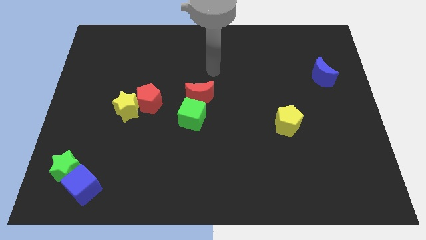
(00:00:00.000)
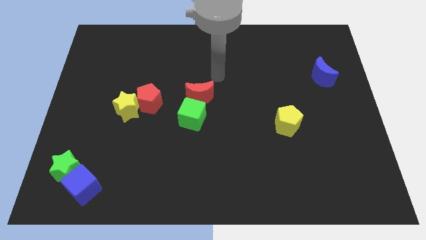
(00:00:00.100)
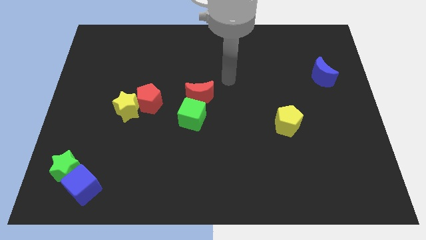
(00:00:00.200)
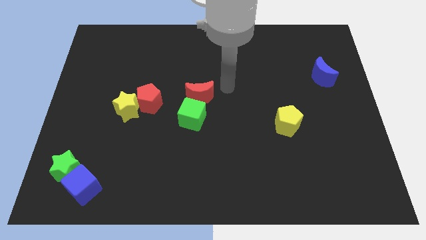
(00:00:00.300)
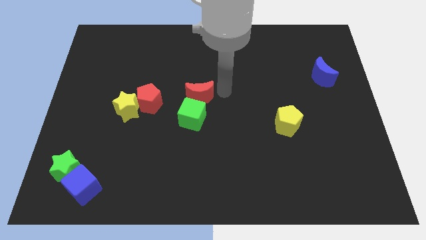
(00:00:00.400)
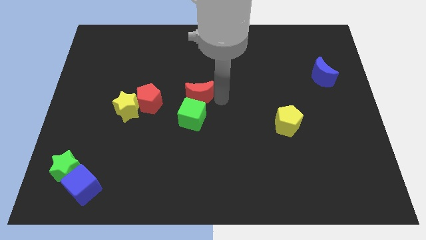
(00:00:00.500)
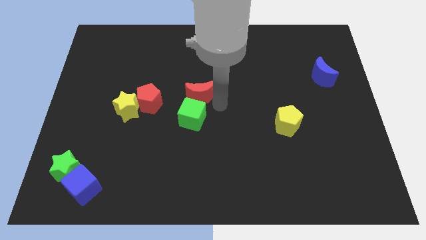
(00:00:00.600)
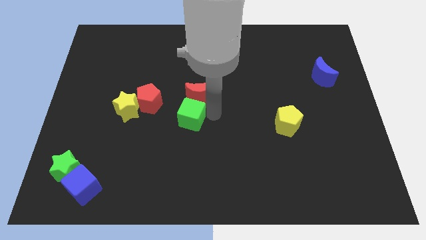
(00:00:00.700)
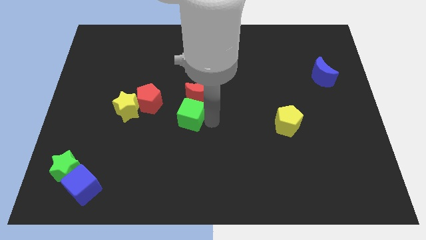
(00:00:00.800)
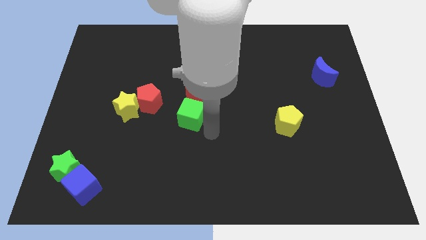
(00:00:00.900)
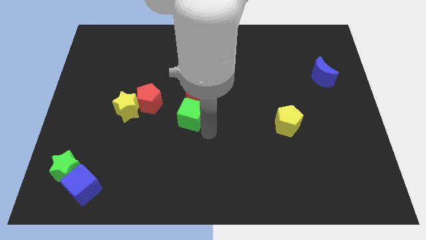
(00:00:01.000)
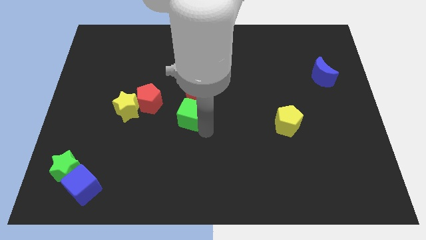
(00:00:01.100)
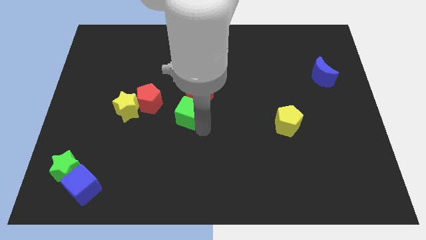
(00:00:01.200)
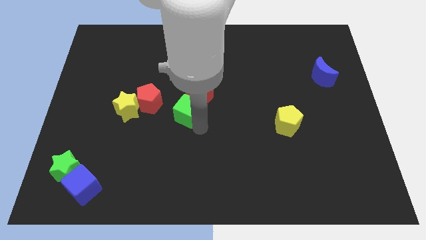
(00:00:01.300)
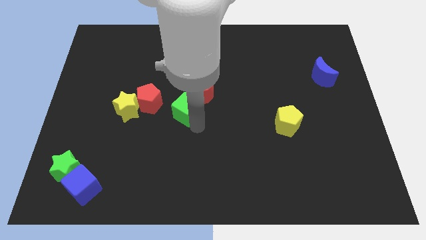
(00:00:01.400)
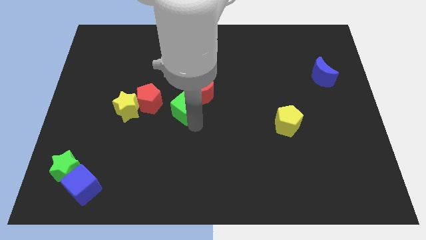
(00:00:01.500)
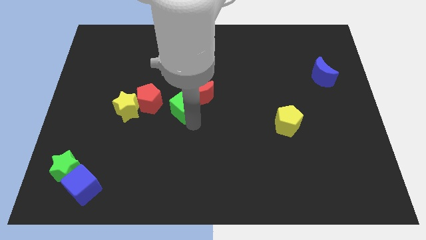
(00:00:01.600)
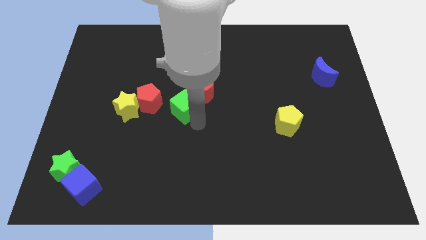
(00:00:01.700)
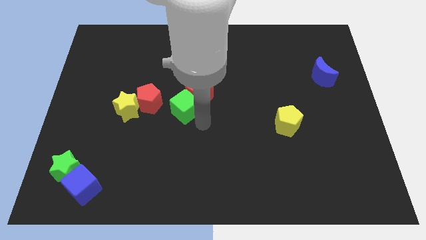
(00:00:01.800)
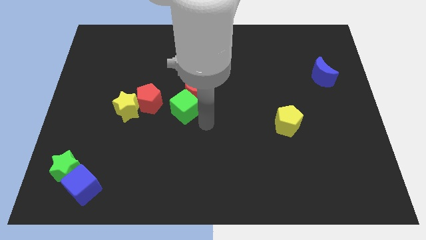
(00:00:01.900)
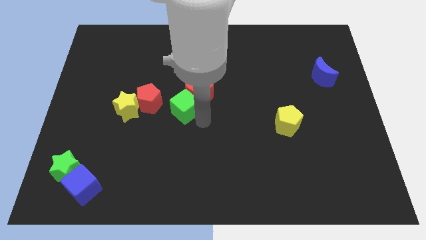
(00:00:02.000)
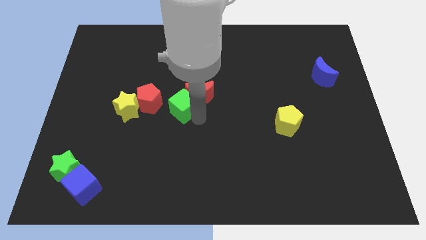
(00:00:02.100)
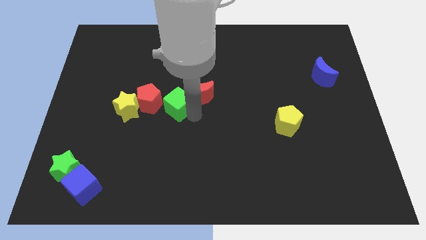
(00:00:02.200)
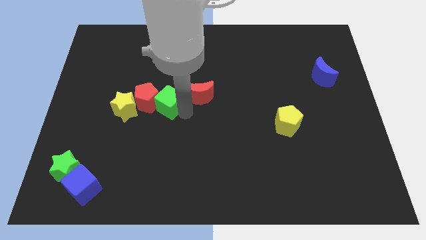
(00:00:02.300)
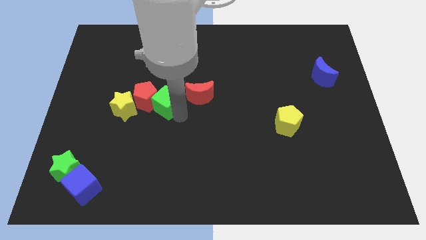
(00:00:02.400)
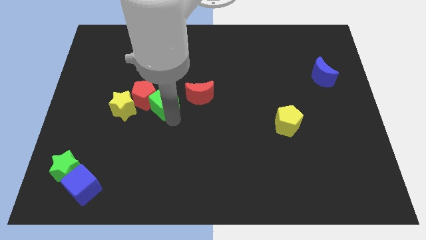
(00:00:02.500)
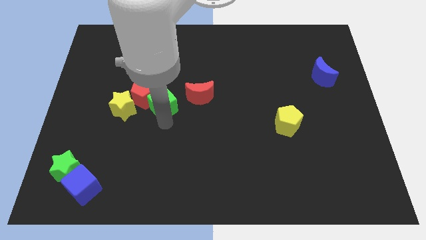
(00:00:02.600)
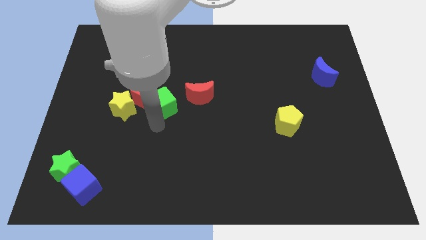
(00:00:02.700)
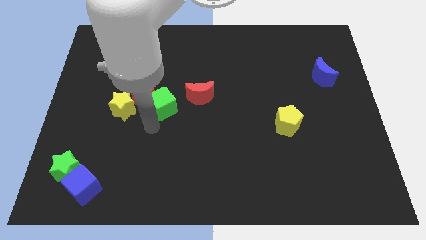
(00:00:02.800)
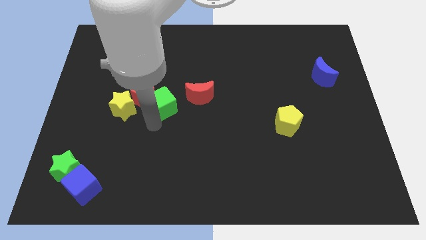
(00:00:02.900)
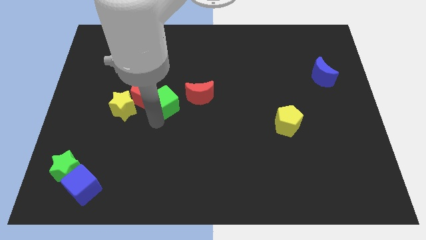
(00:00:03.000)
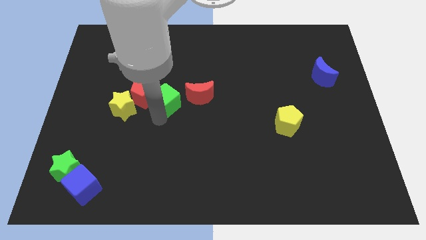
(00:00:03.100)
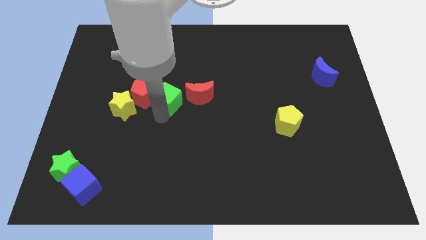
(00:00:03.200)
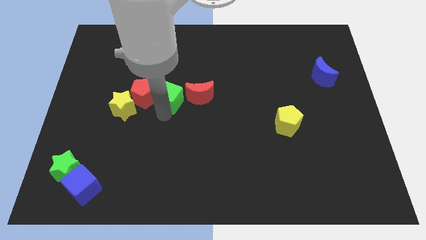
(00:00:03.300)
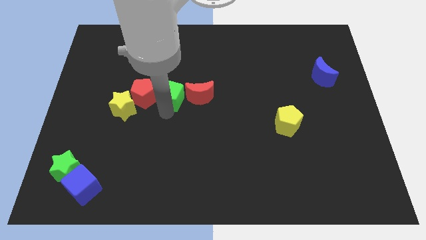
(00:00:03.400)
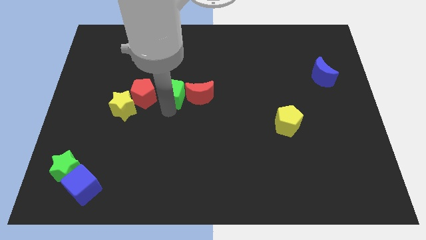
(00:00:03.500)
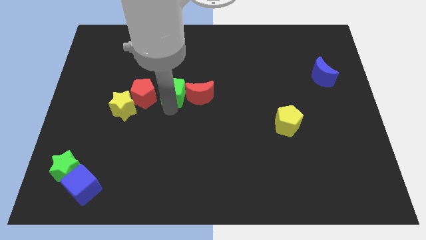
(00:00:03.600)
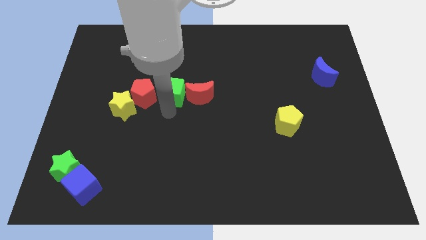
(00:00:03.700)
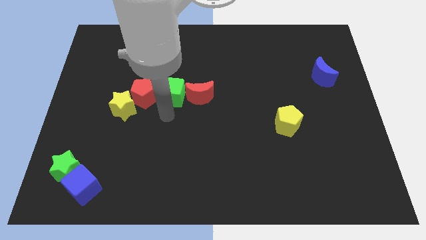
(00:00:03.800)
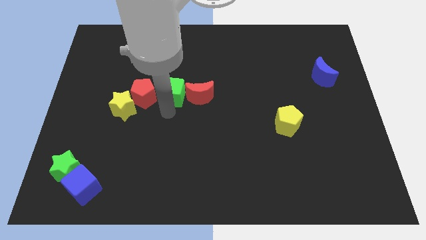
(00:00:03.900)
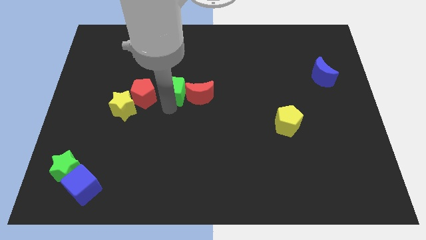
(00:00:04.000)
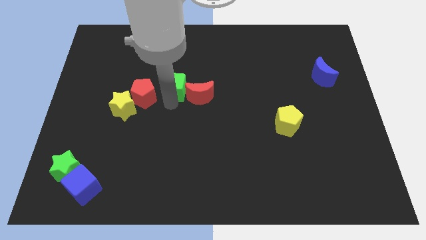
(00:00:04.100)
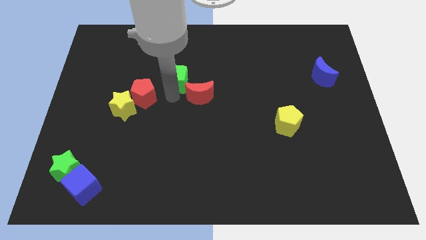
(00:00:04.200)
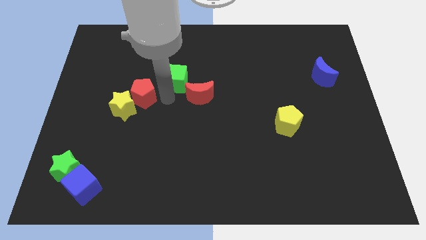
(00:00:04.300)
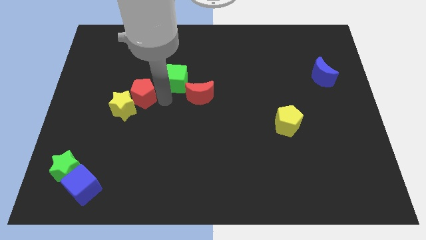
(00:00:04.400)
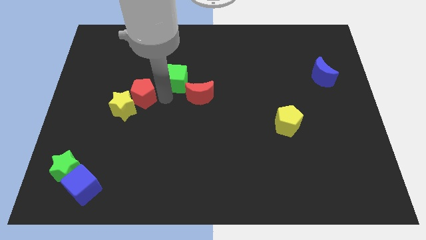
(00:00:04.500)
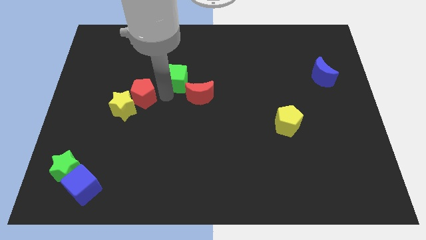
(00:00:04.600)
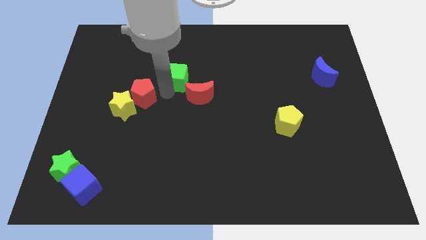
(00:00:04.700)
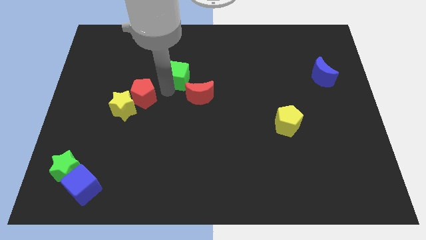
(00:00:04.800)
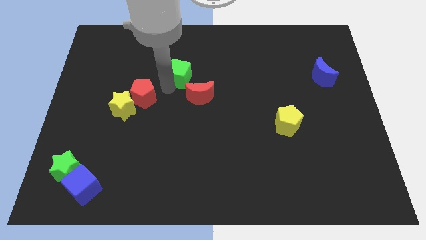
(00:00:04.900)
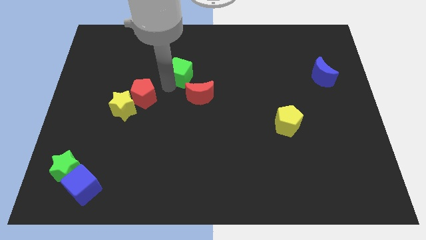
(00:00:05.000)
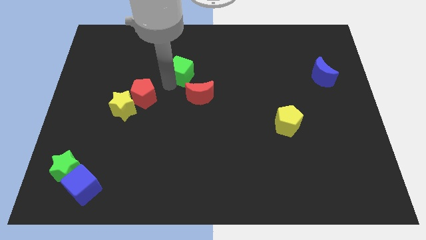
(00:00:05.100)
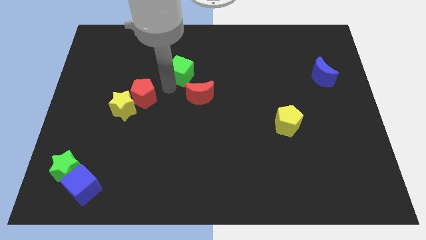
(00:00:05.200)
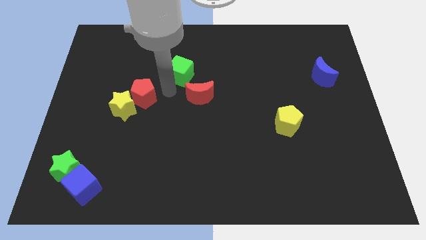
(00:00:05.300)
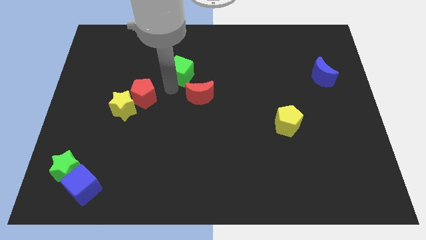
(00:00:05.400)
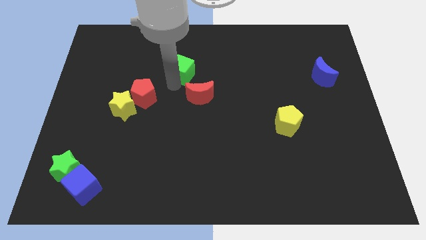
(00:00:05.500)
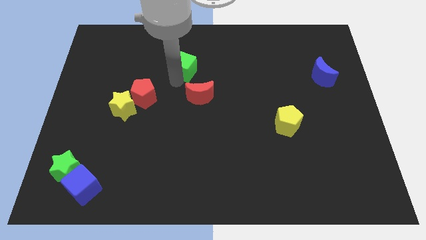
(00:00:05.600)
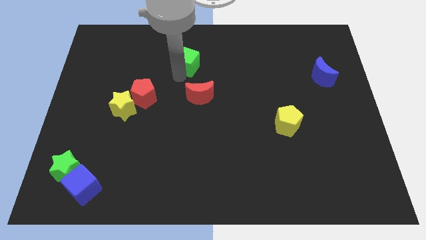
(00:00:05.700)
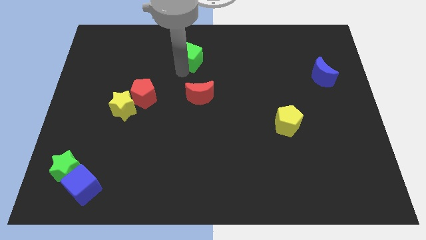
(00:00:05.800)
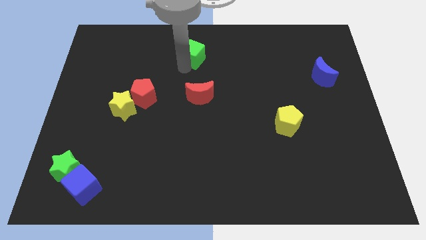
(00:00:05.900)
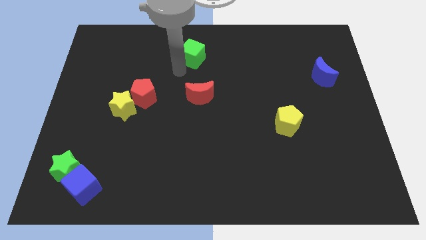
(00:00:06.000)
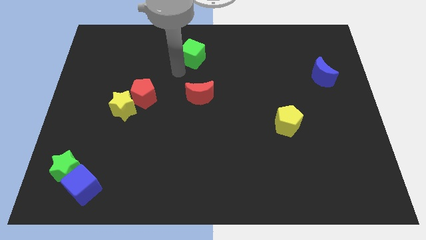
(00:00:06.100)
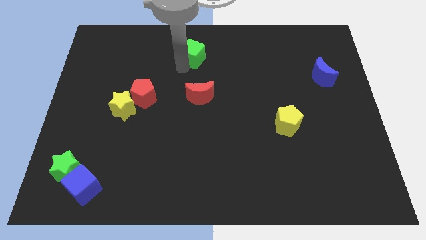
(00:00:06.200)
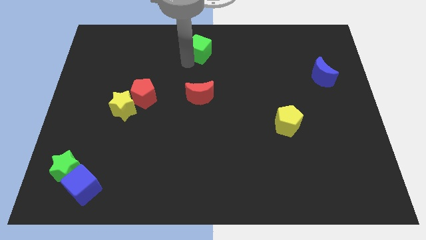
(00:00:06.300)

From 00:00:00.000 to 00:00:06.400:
move the green cube to the top

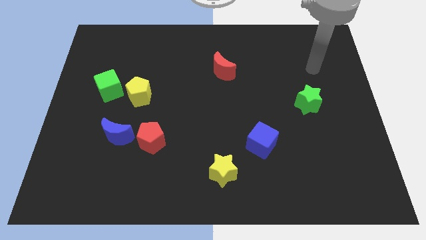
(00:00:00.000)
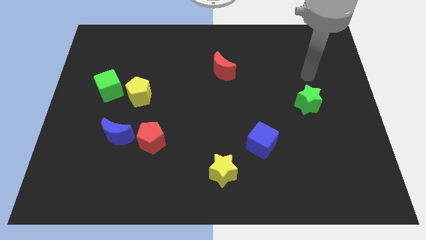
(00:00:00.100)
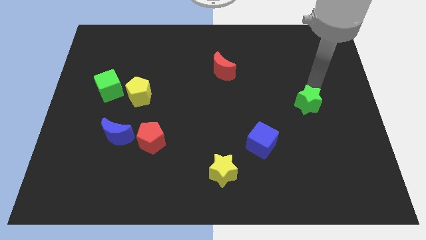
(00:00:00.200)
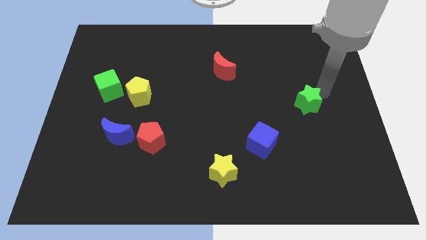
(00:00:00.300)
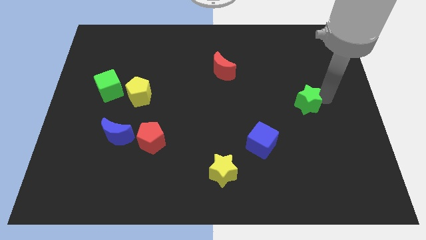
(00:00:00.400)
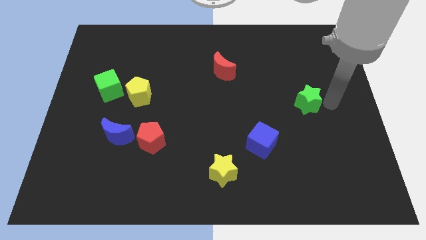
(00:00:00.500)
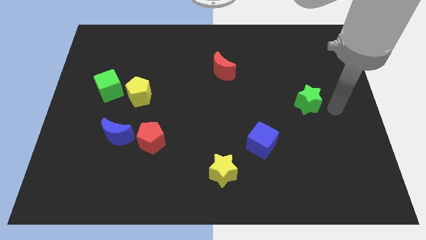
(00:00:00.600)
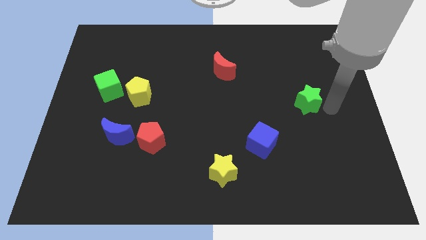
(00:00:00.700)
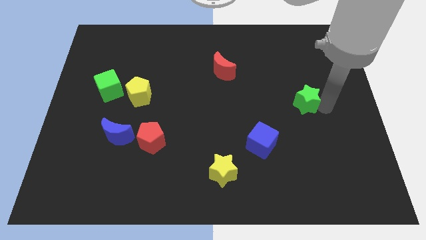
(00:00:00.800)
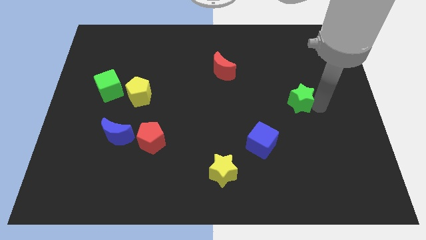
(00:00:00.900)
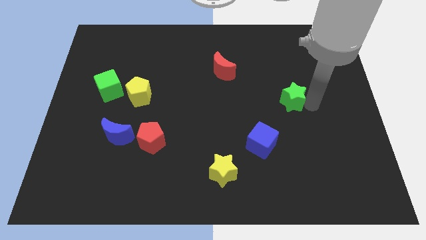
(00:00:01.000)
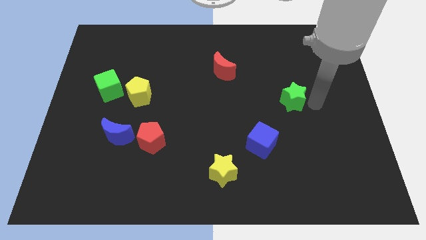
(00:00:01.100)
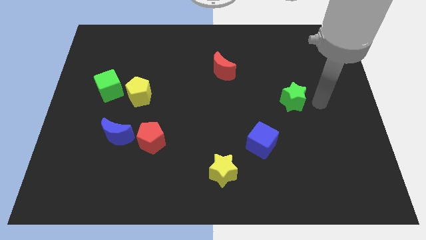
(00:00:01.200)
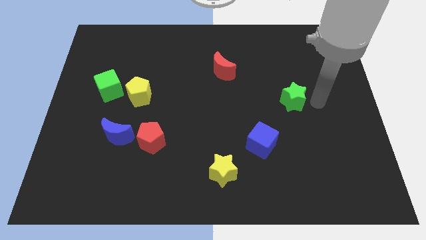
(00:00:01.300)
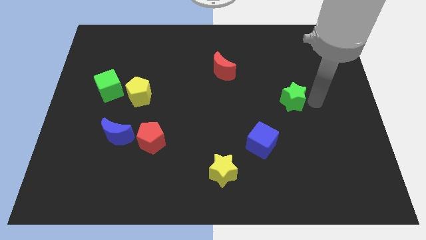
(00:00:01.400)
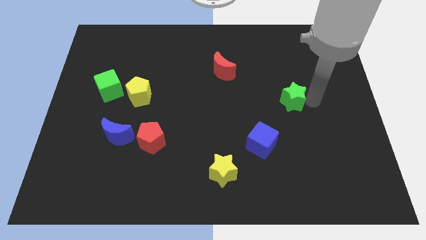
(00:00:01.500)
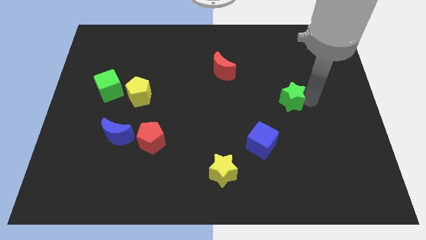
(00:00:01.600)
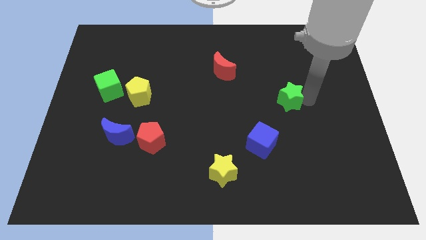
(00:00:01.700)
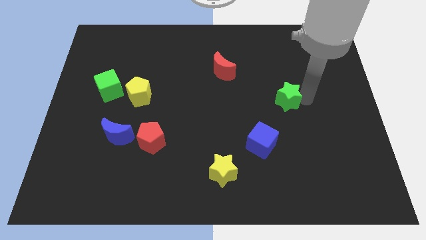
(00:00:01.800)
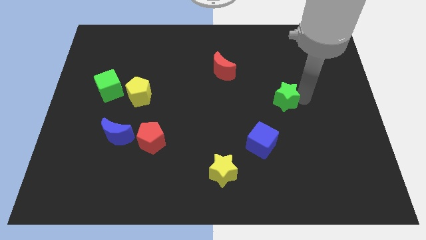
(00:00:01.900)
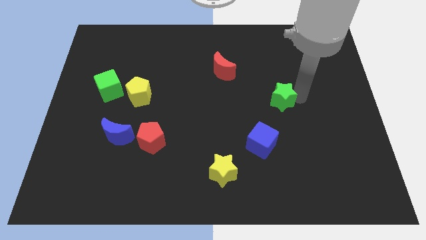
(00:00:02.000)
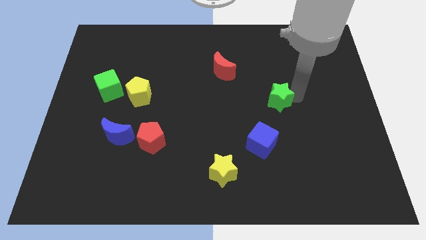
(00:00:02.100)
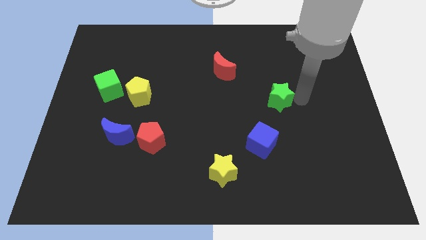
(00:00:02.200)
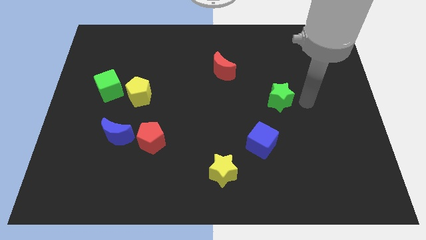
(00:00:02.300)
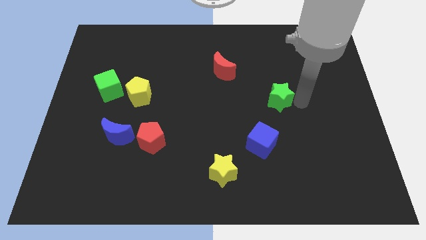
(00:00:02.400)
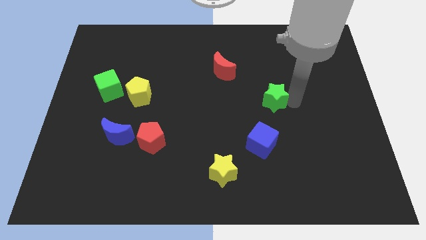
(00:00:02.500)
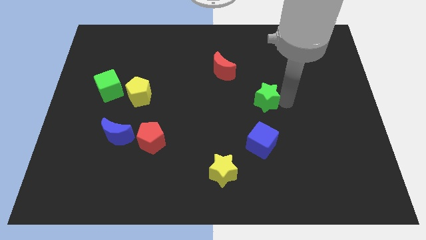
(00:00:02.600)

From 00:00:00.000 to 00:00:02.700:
push the green star to the center
